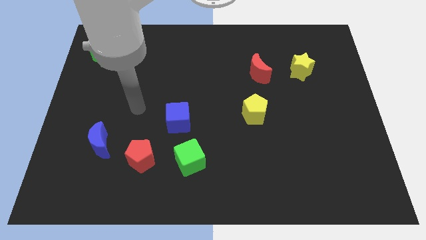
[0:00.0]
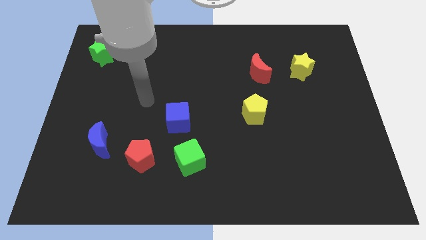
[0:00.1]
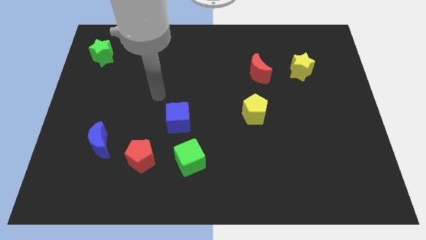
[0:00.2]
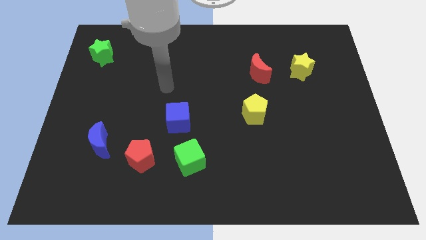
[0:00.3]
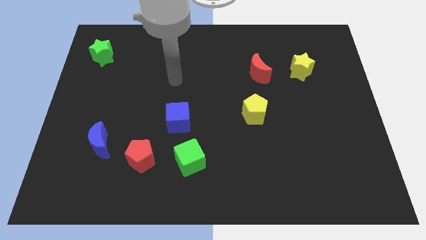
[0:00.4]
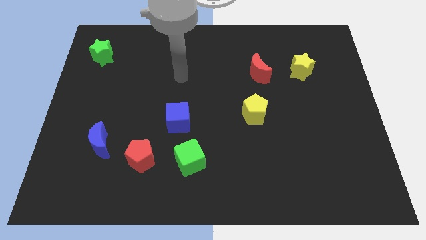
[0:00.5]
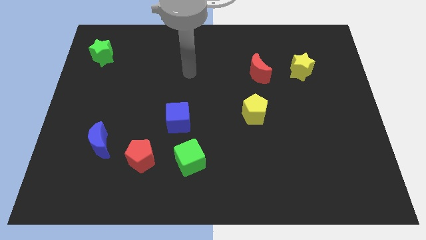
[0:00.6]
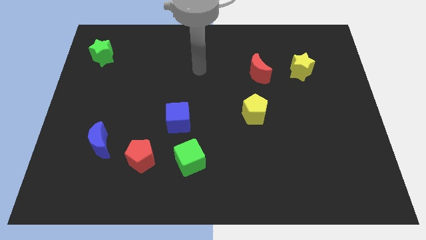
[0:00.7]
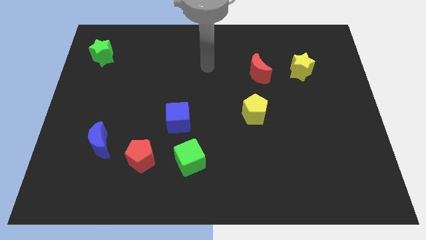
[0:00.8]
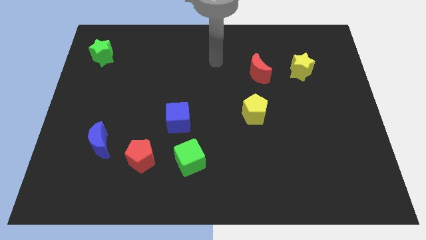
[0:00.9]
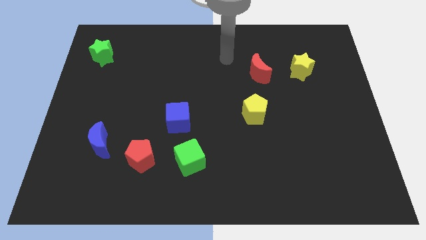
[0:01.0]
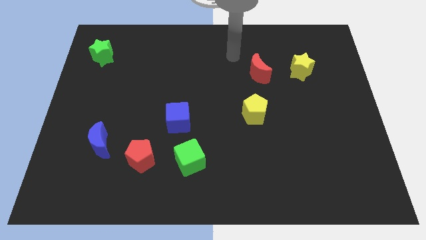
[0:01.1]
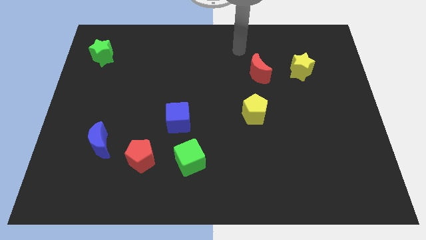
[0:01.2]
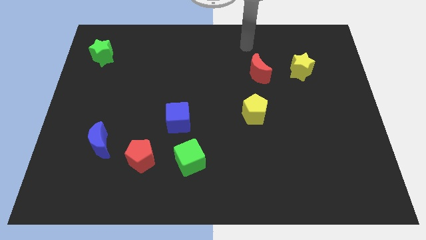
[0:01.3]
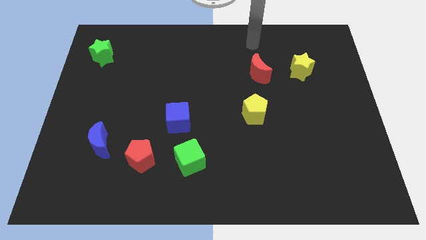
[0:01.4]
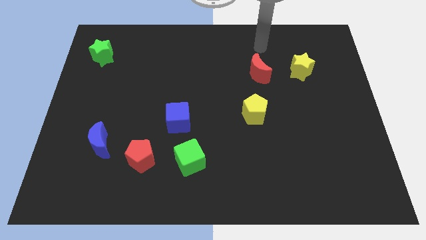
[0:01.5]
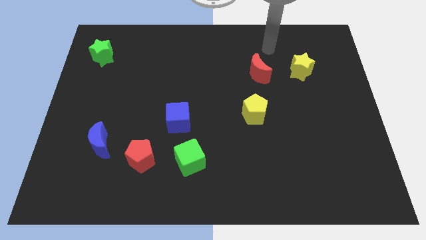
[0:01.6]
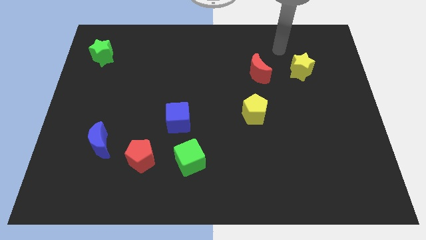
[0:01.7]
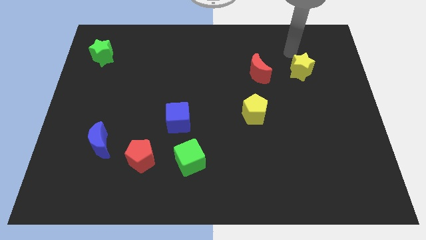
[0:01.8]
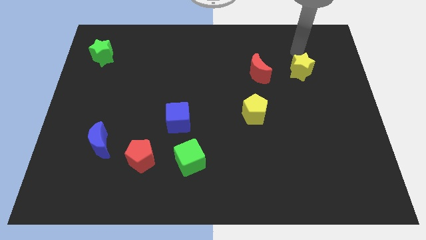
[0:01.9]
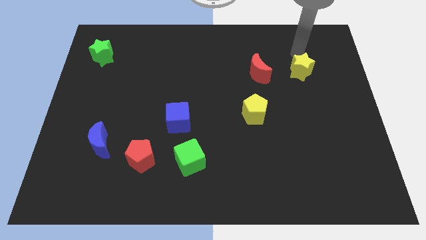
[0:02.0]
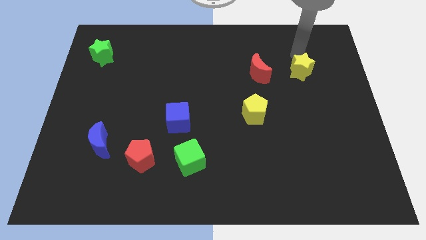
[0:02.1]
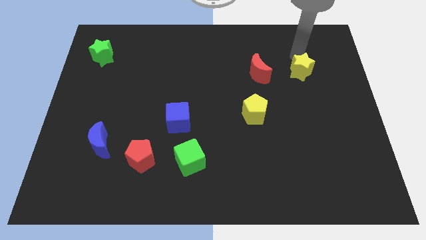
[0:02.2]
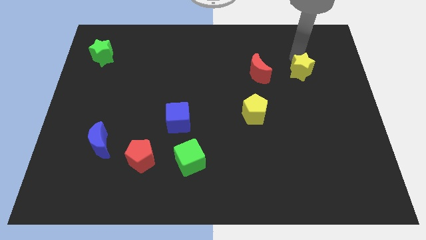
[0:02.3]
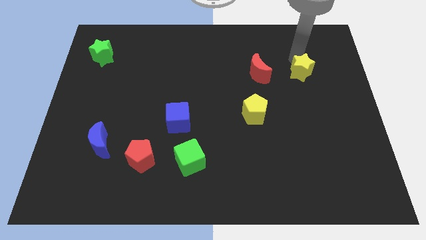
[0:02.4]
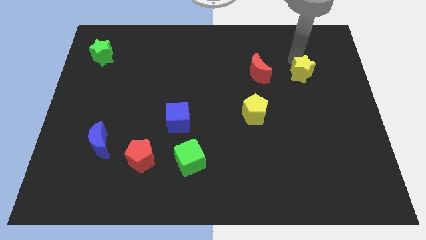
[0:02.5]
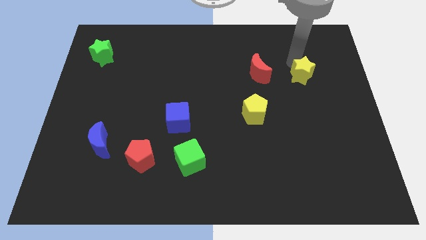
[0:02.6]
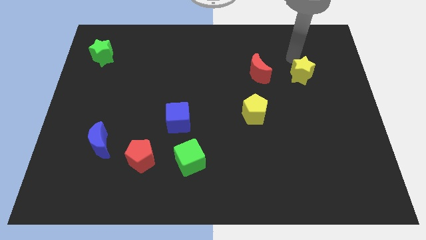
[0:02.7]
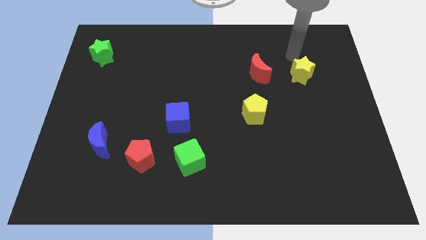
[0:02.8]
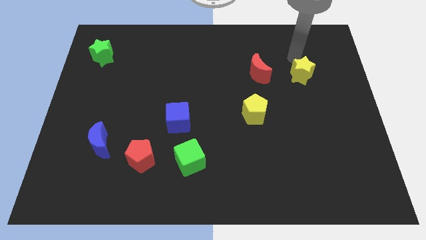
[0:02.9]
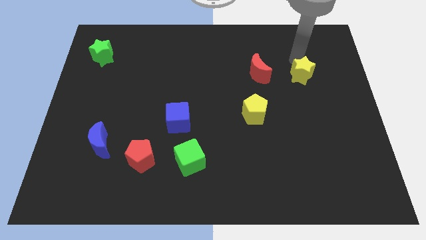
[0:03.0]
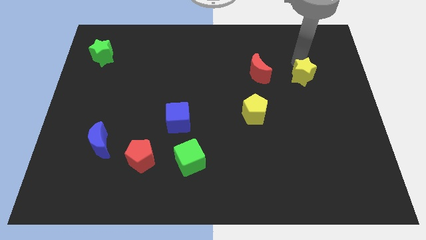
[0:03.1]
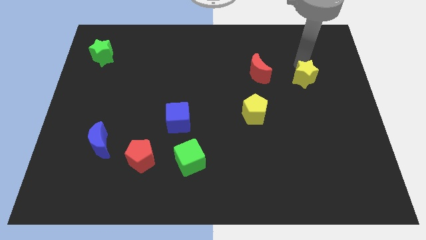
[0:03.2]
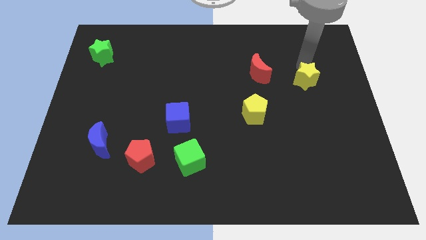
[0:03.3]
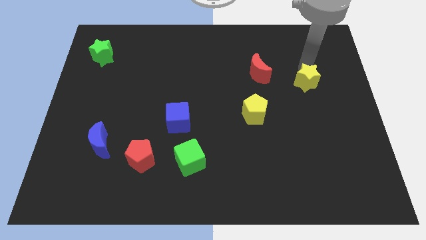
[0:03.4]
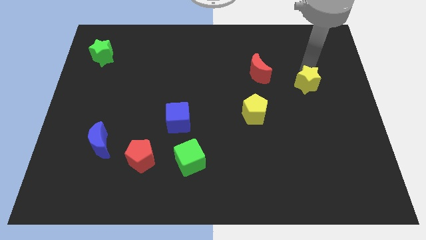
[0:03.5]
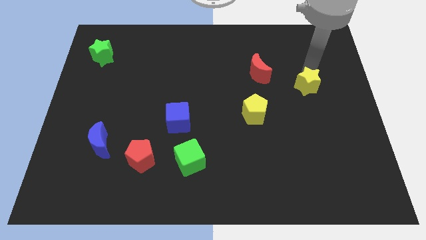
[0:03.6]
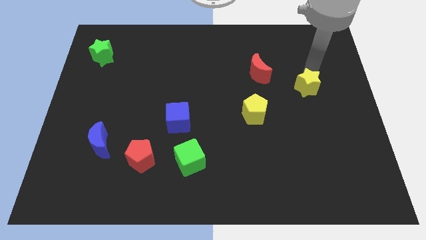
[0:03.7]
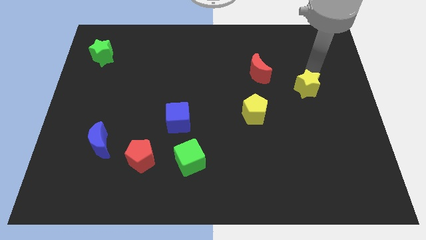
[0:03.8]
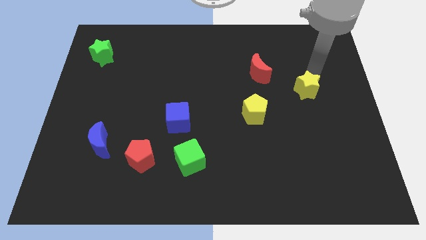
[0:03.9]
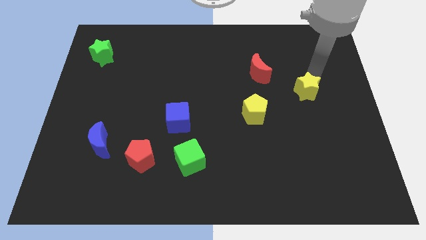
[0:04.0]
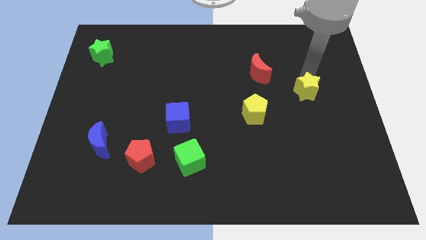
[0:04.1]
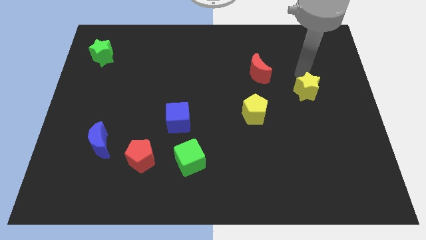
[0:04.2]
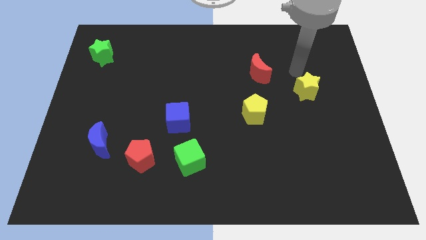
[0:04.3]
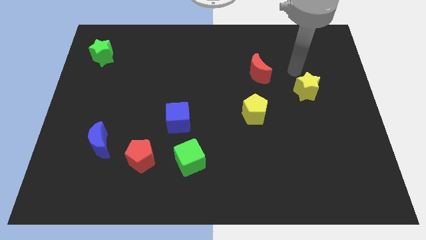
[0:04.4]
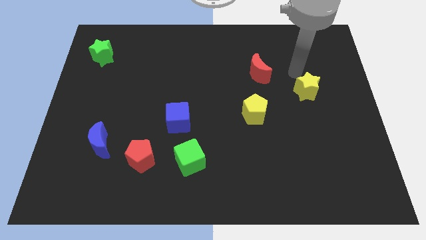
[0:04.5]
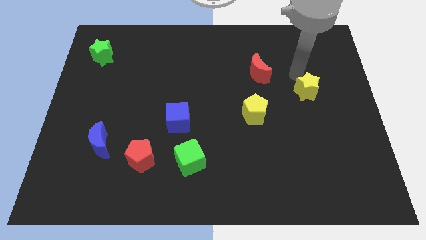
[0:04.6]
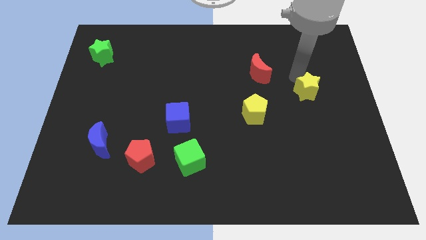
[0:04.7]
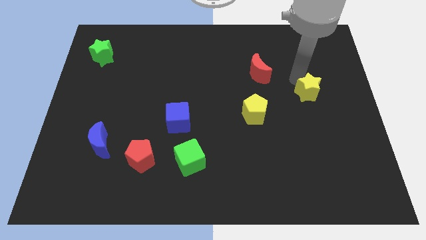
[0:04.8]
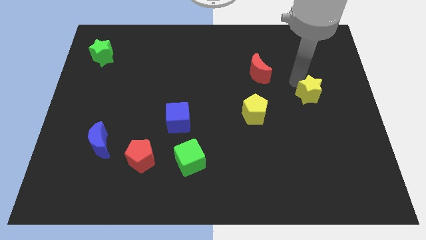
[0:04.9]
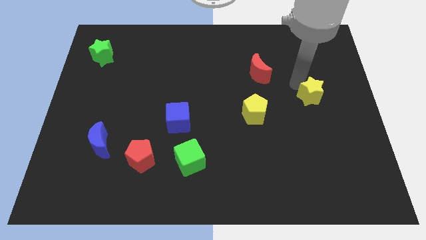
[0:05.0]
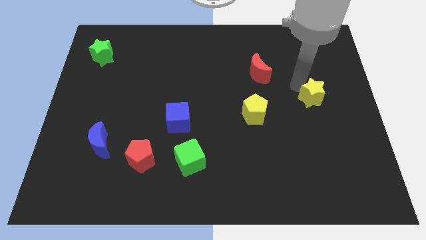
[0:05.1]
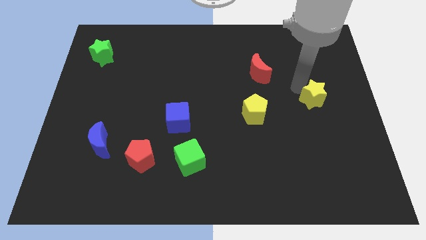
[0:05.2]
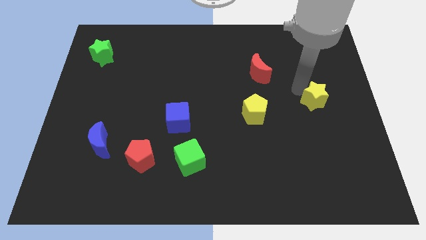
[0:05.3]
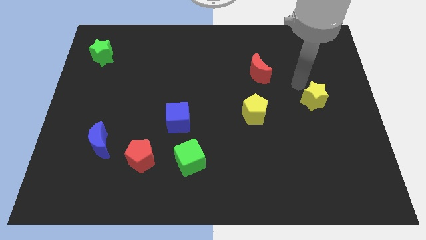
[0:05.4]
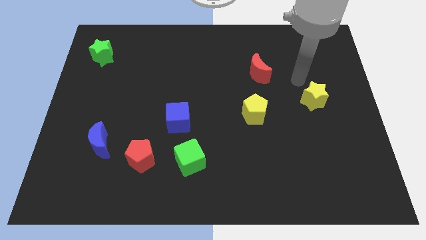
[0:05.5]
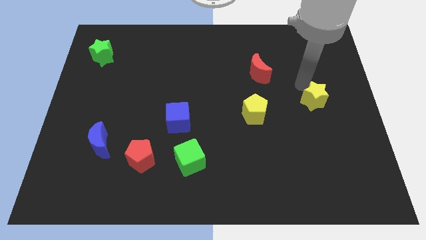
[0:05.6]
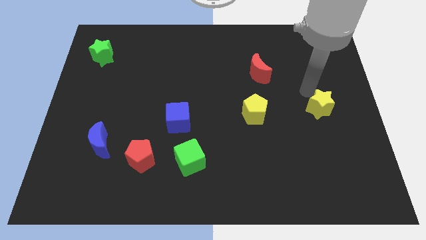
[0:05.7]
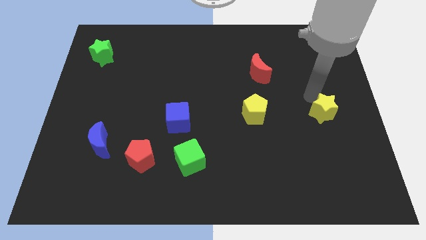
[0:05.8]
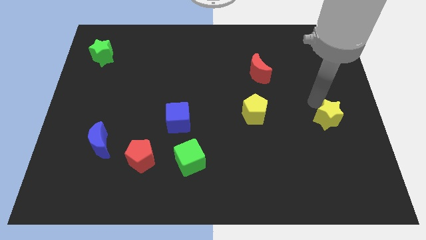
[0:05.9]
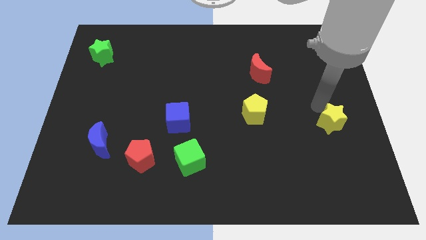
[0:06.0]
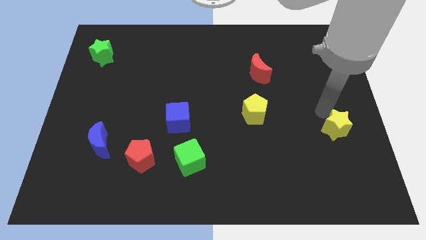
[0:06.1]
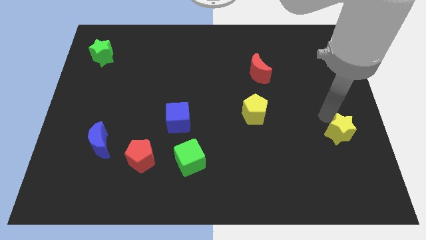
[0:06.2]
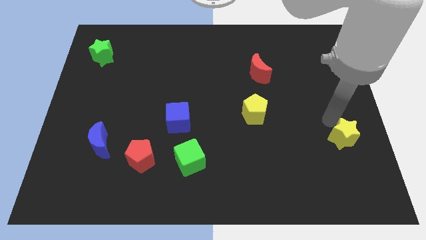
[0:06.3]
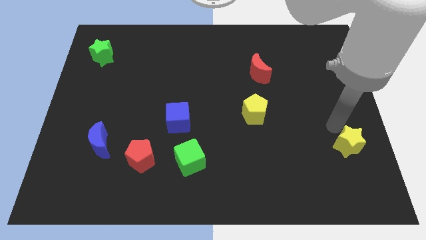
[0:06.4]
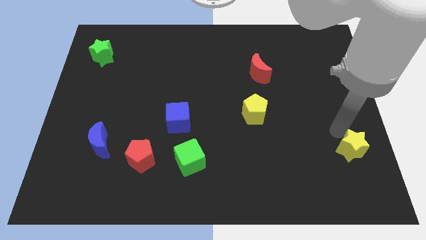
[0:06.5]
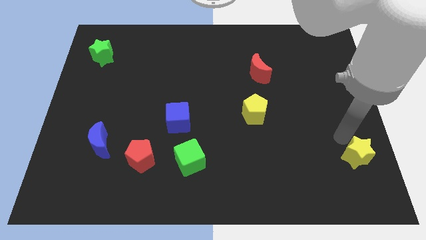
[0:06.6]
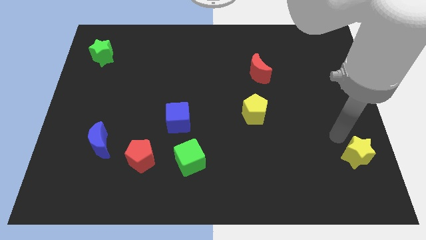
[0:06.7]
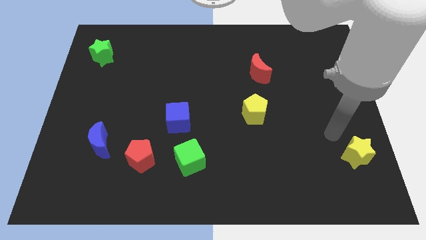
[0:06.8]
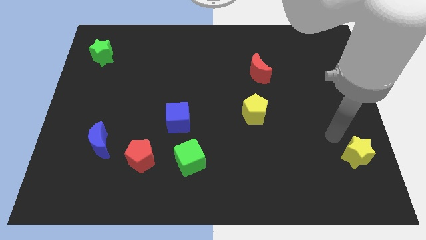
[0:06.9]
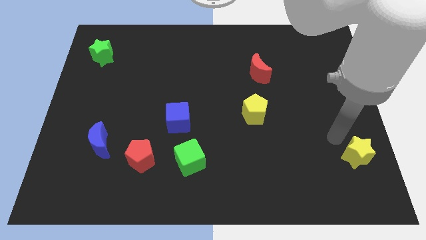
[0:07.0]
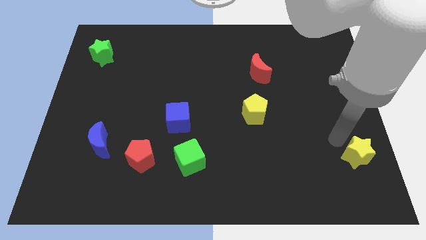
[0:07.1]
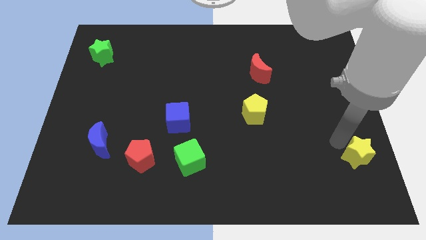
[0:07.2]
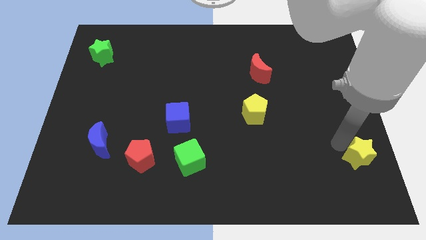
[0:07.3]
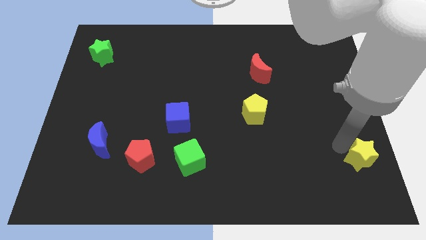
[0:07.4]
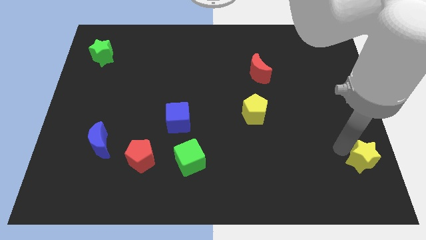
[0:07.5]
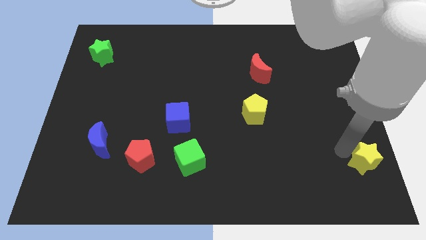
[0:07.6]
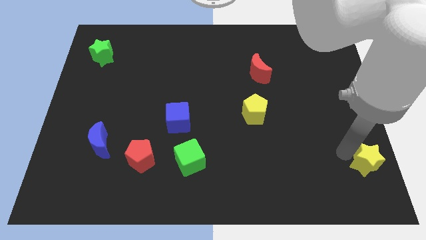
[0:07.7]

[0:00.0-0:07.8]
push the yellow star to the bottom right
